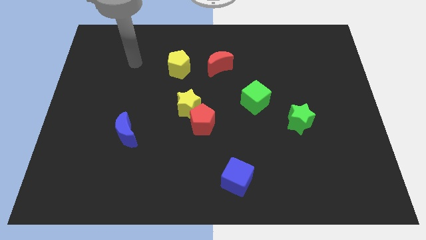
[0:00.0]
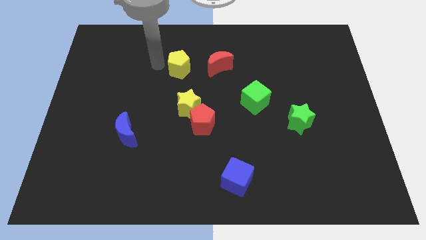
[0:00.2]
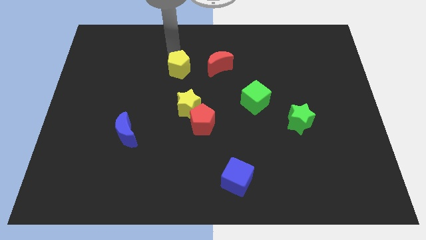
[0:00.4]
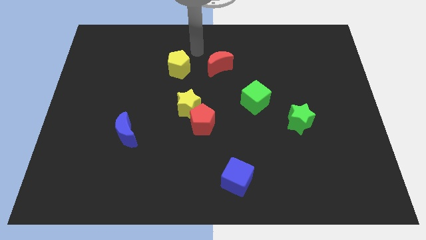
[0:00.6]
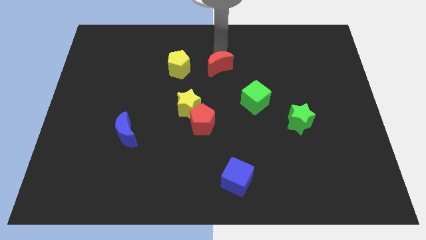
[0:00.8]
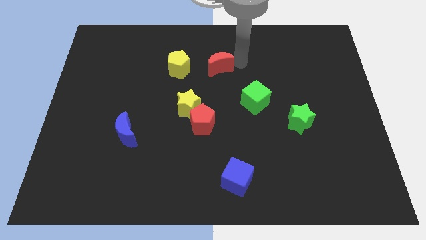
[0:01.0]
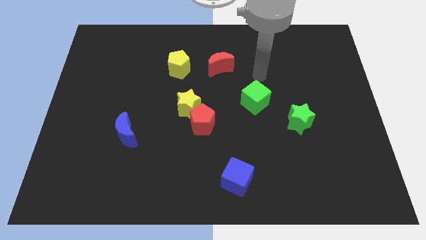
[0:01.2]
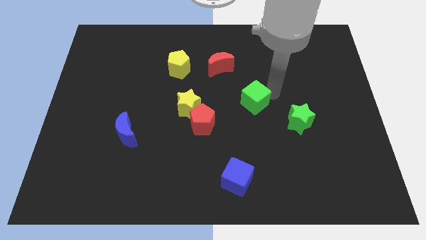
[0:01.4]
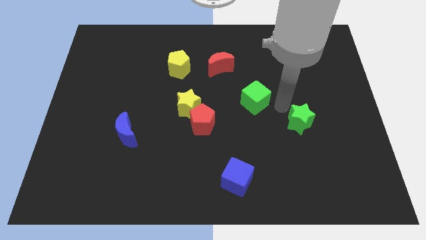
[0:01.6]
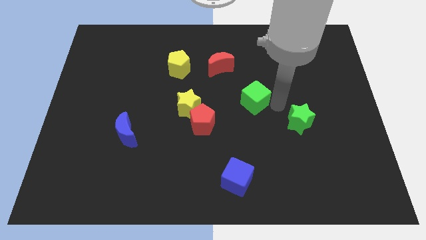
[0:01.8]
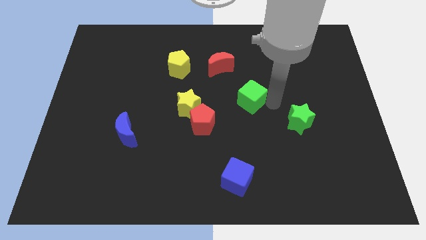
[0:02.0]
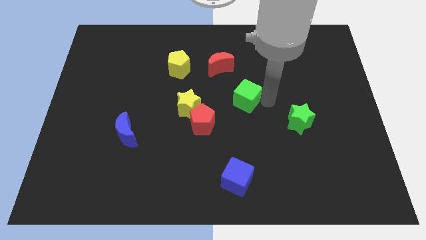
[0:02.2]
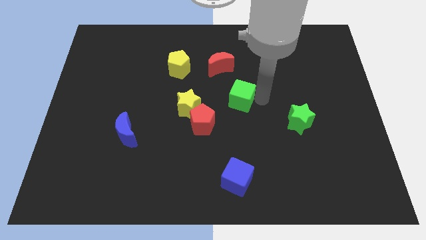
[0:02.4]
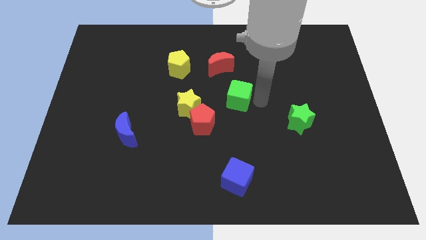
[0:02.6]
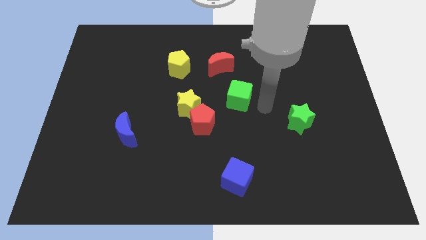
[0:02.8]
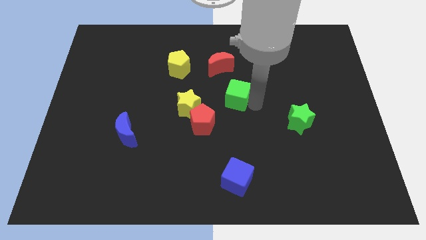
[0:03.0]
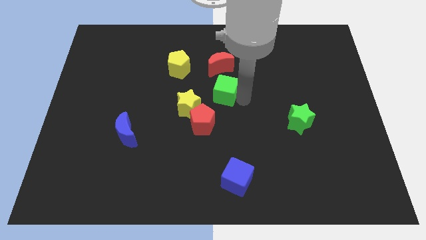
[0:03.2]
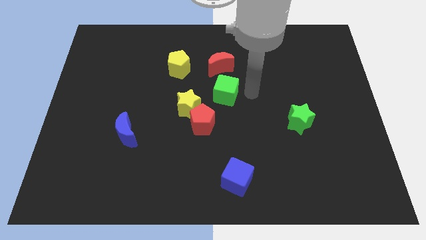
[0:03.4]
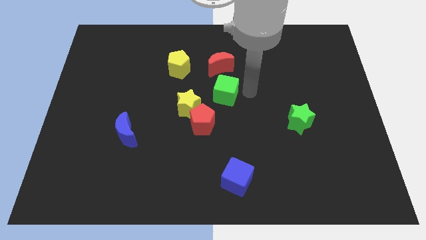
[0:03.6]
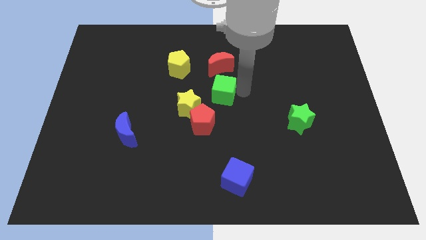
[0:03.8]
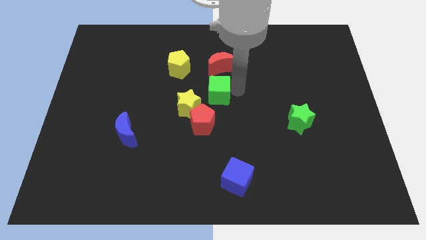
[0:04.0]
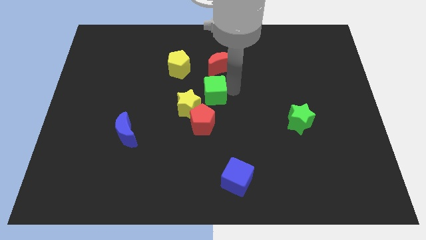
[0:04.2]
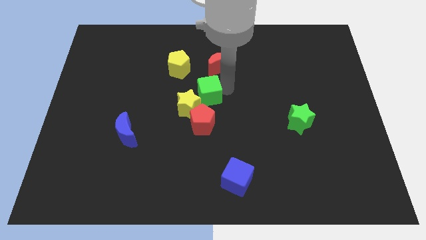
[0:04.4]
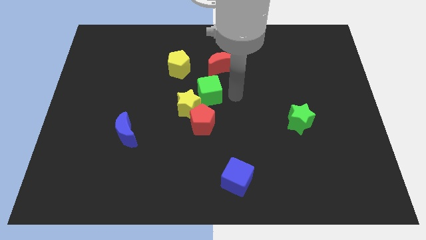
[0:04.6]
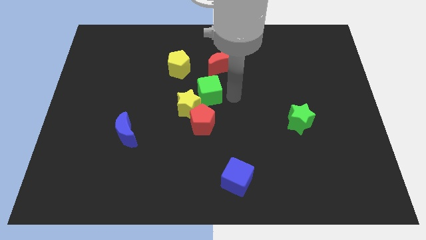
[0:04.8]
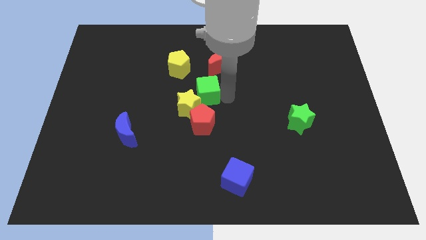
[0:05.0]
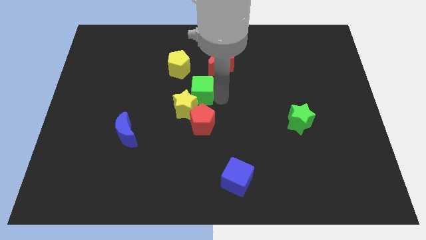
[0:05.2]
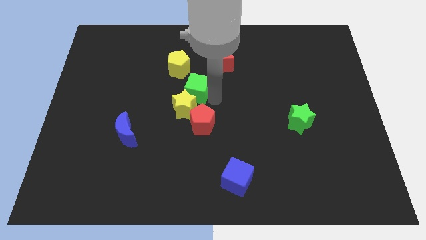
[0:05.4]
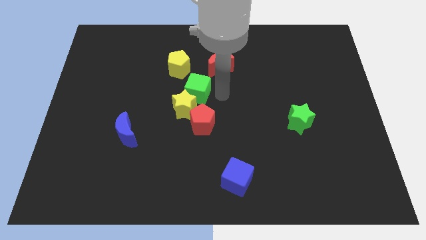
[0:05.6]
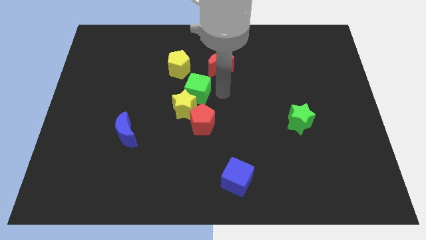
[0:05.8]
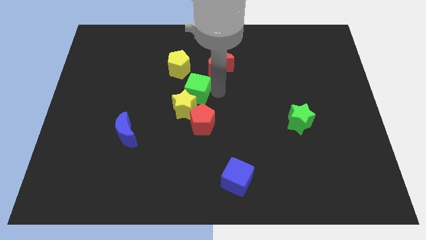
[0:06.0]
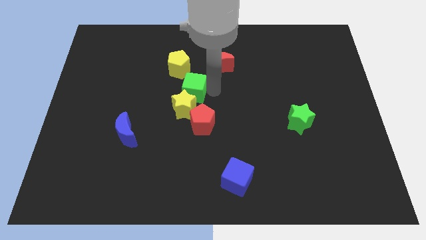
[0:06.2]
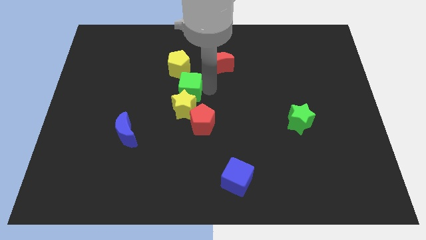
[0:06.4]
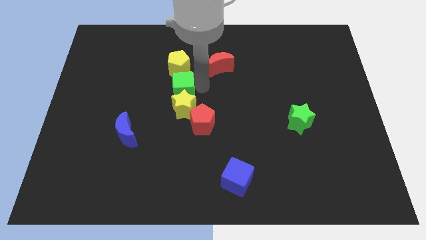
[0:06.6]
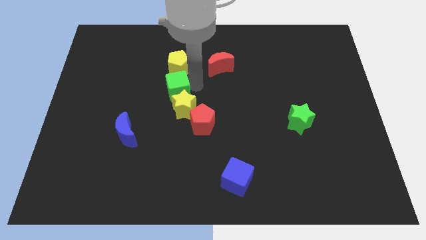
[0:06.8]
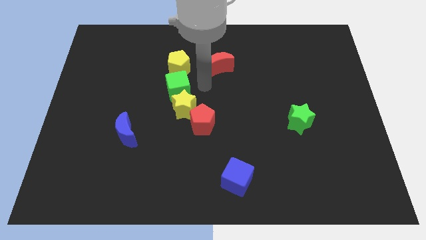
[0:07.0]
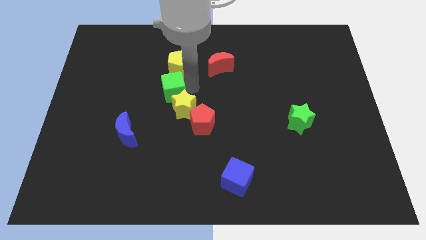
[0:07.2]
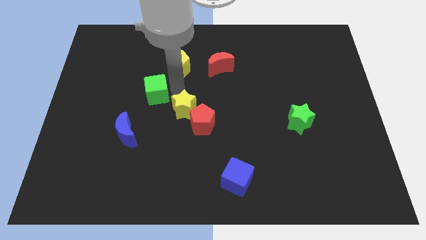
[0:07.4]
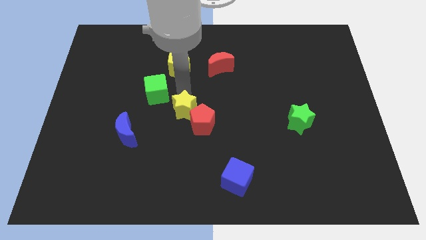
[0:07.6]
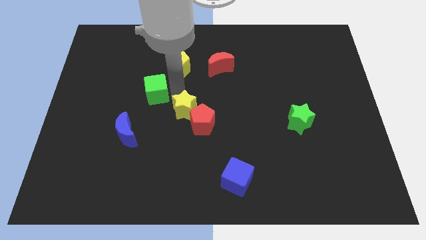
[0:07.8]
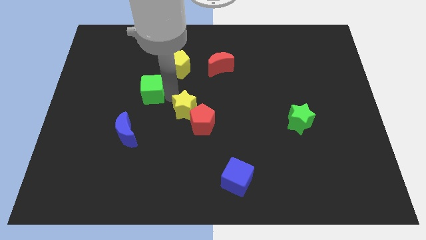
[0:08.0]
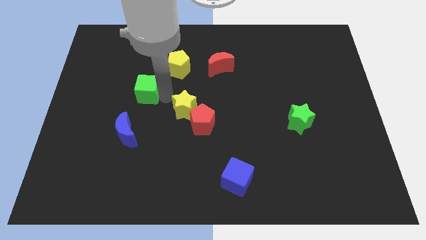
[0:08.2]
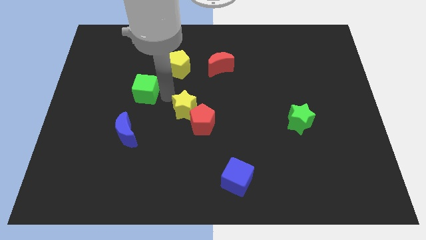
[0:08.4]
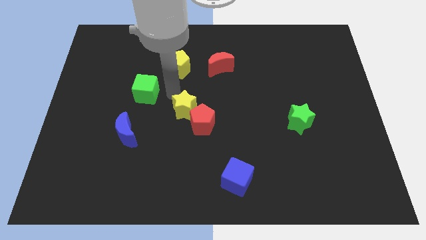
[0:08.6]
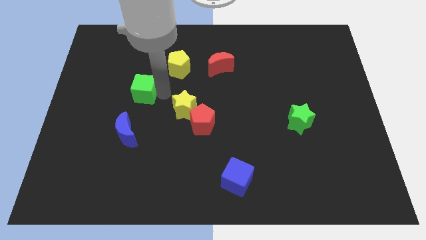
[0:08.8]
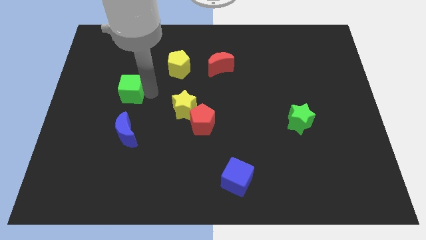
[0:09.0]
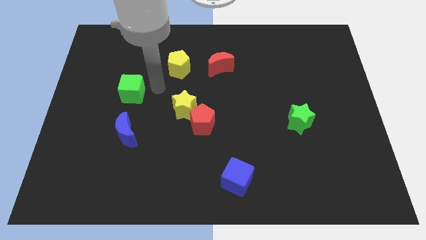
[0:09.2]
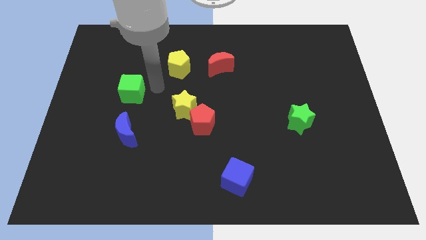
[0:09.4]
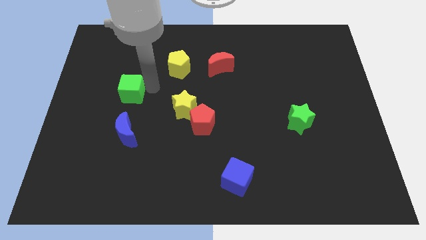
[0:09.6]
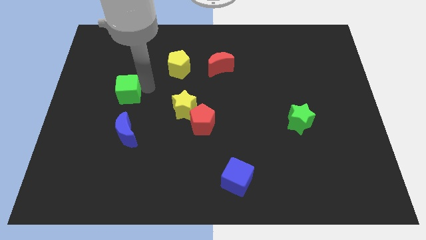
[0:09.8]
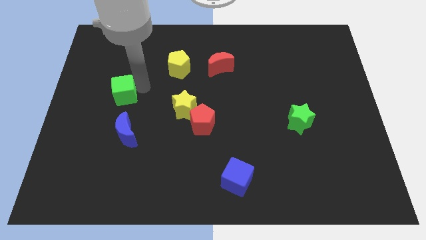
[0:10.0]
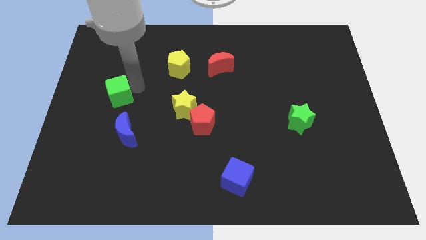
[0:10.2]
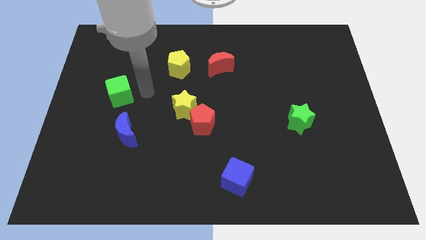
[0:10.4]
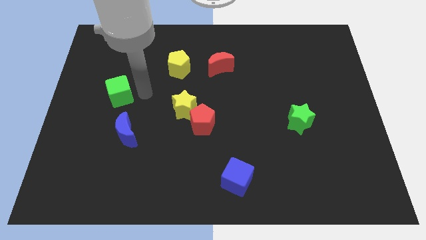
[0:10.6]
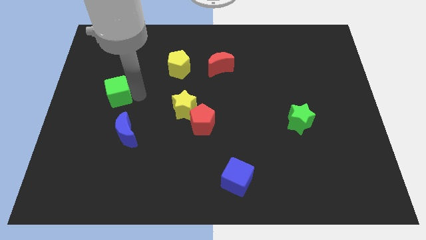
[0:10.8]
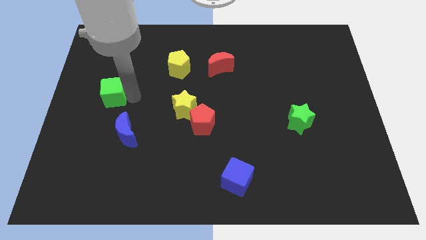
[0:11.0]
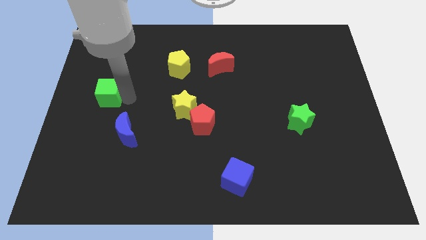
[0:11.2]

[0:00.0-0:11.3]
push the green cube to the left side

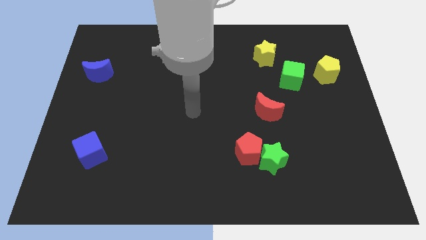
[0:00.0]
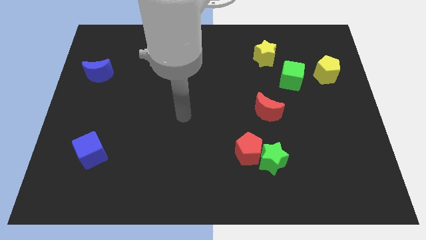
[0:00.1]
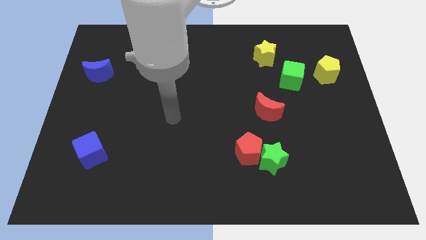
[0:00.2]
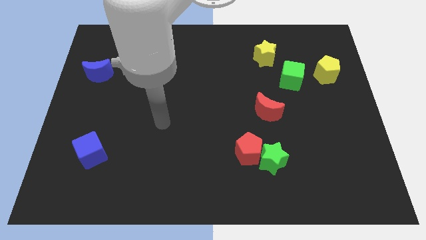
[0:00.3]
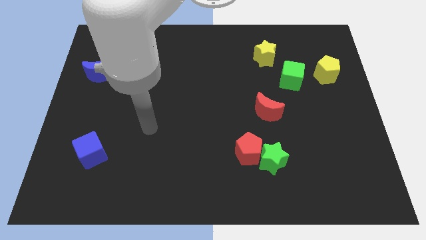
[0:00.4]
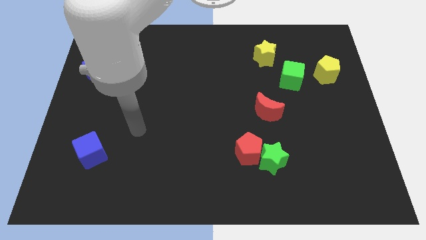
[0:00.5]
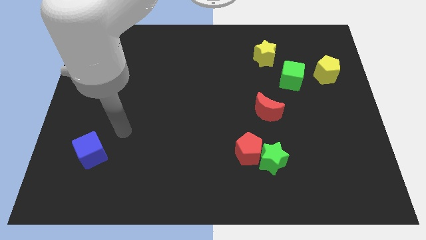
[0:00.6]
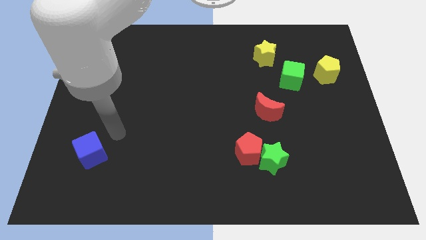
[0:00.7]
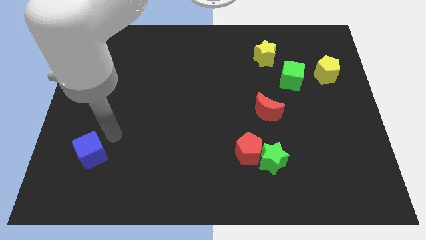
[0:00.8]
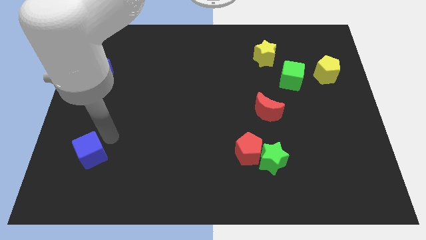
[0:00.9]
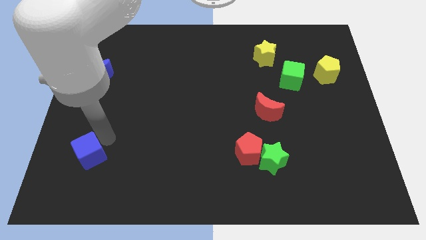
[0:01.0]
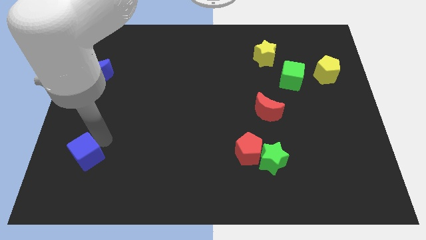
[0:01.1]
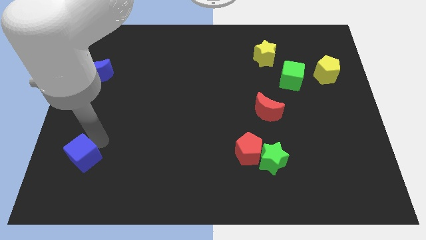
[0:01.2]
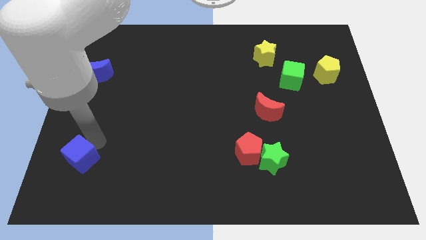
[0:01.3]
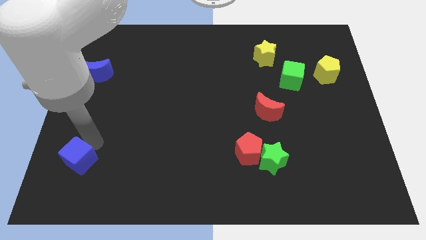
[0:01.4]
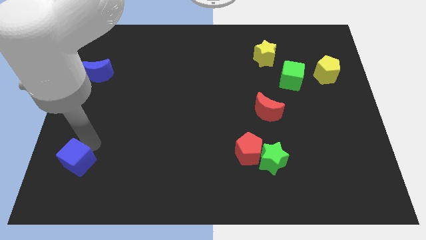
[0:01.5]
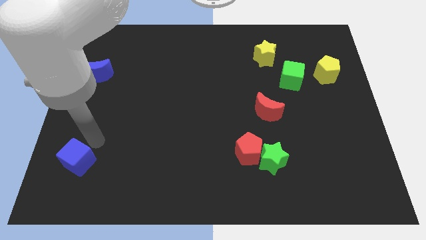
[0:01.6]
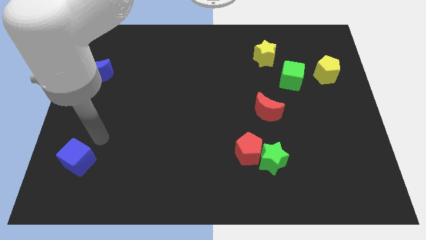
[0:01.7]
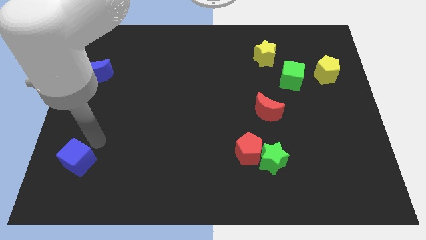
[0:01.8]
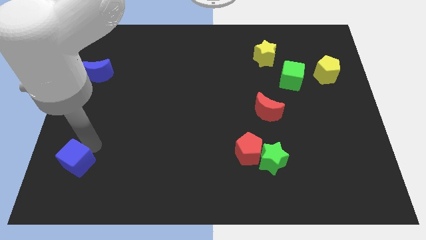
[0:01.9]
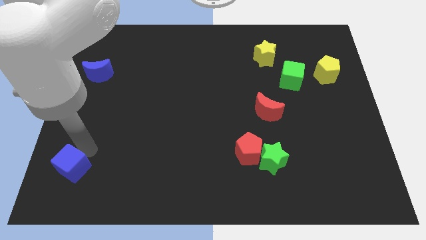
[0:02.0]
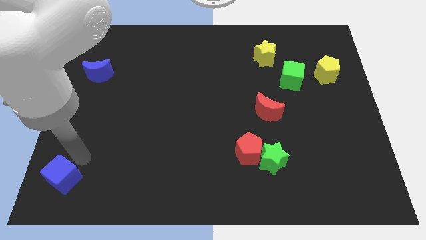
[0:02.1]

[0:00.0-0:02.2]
slide the blue cube to the bottom left of the board
